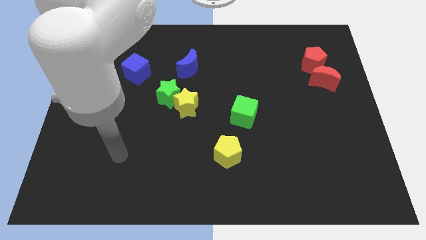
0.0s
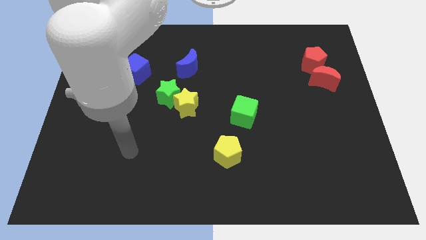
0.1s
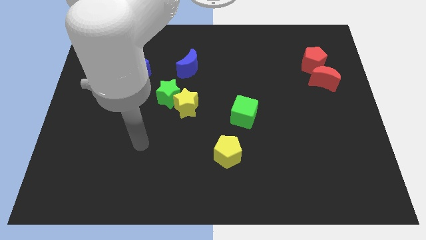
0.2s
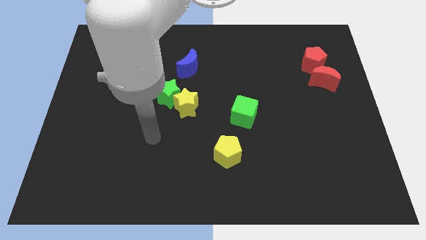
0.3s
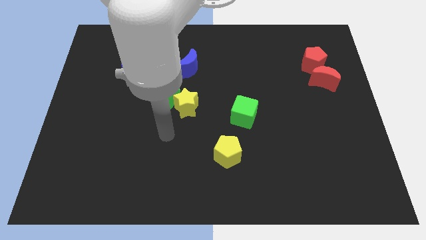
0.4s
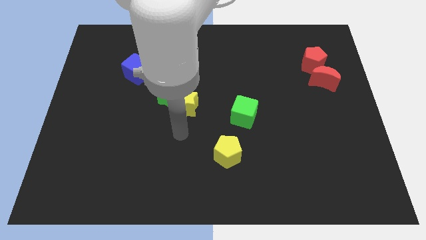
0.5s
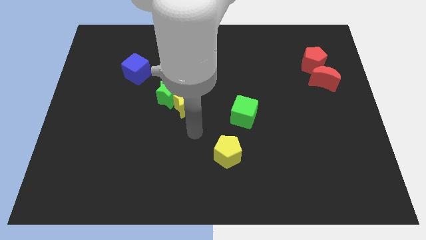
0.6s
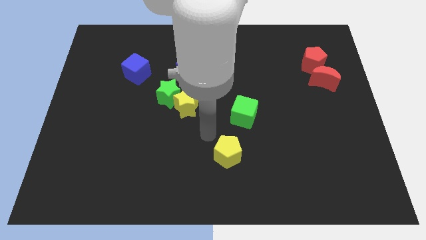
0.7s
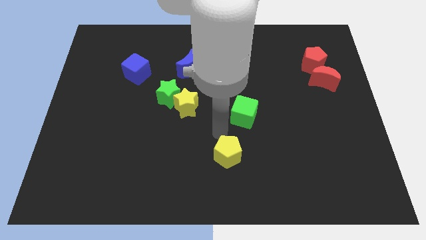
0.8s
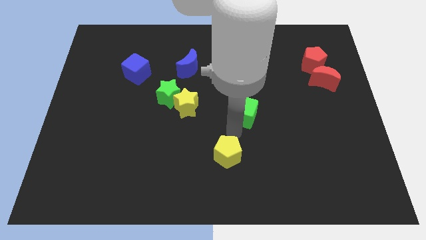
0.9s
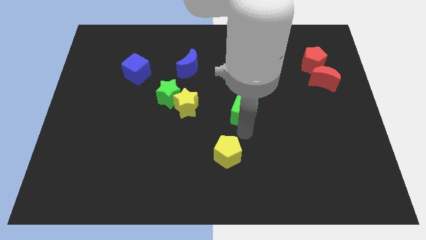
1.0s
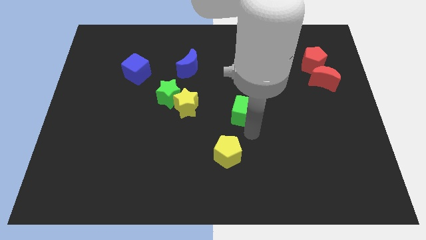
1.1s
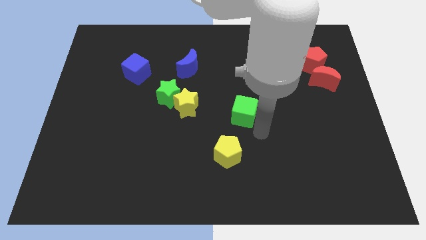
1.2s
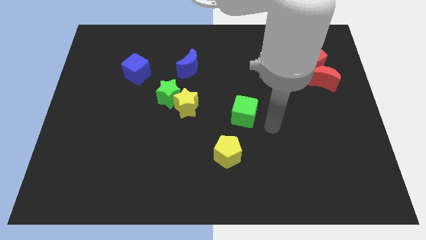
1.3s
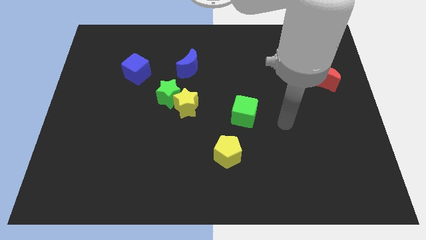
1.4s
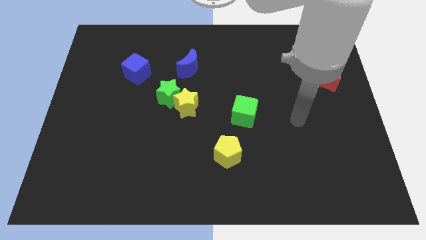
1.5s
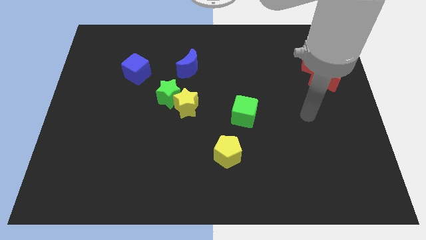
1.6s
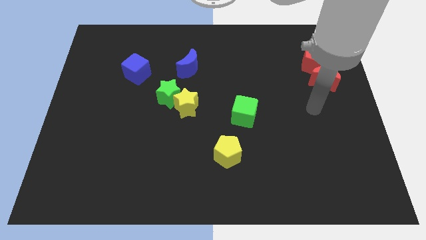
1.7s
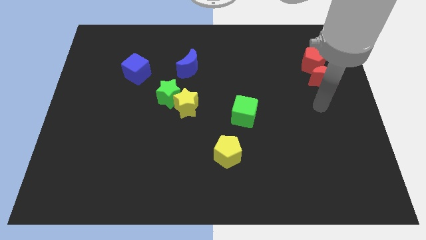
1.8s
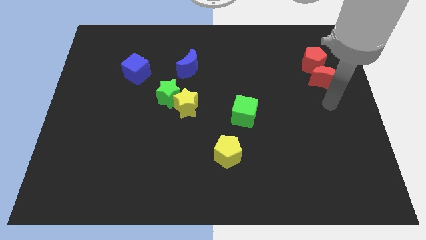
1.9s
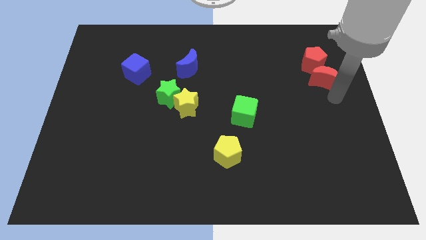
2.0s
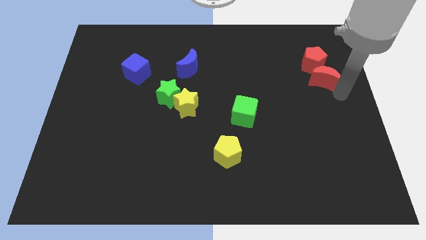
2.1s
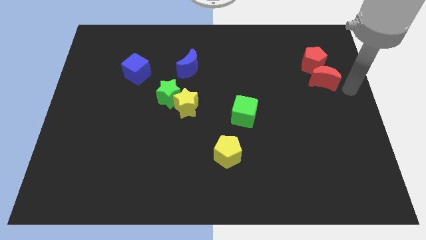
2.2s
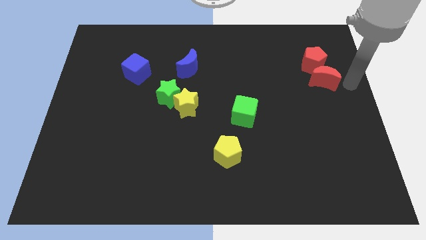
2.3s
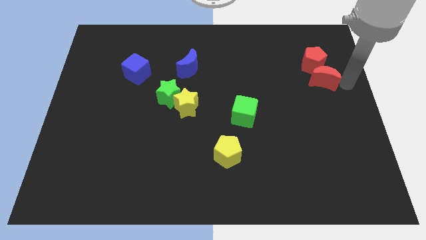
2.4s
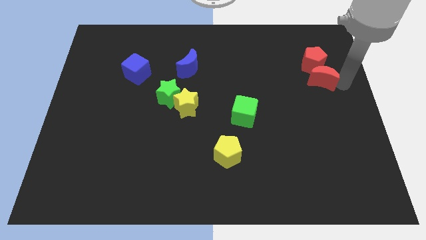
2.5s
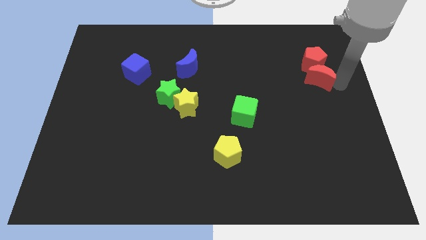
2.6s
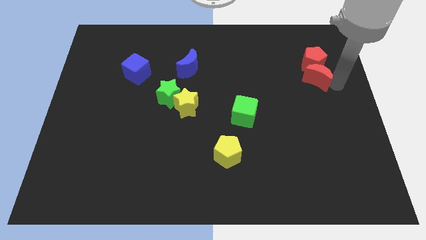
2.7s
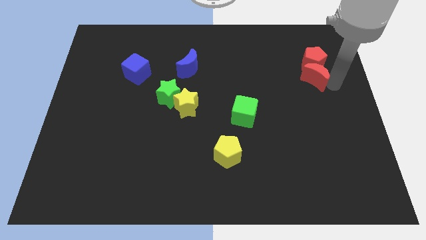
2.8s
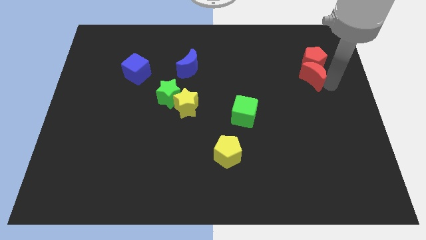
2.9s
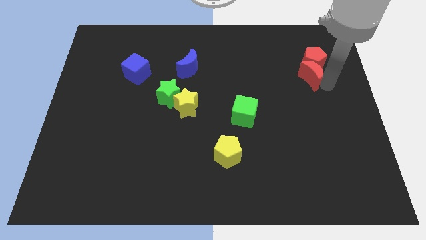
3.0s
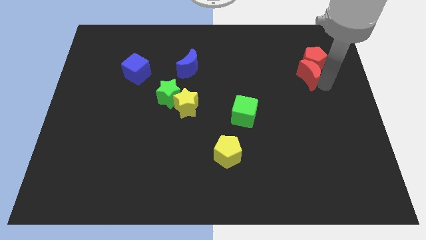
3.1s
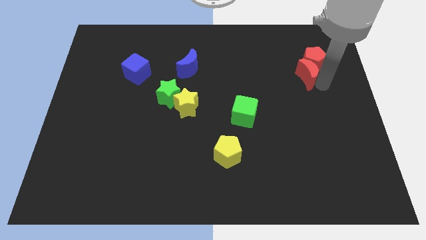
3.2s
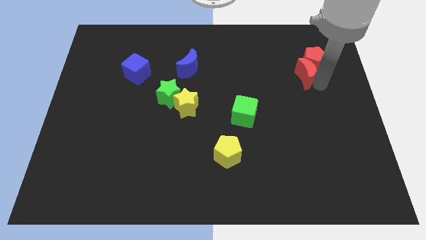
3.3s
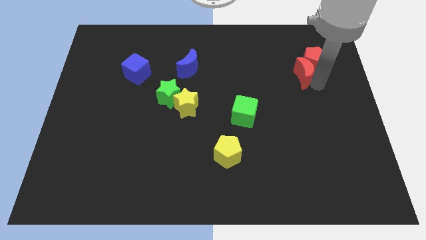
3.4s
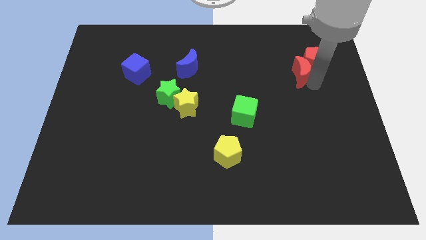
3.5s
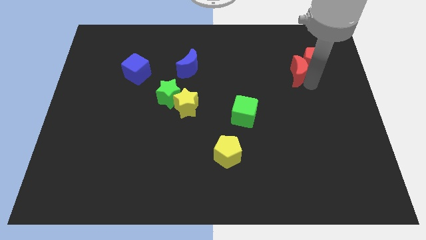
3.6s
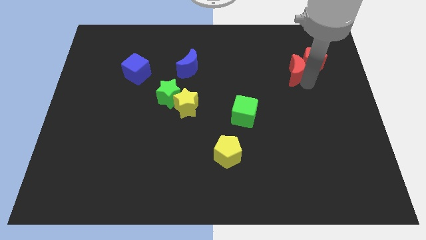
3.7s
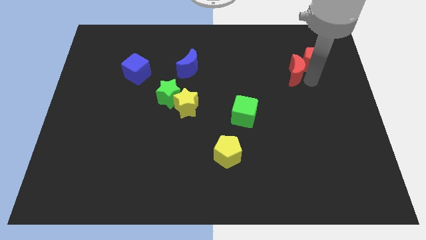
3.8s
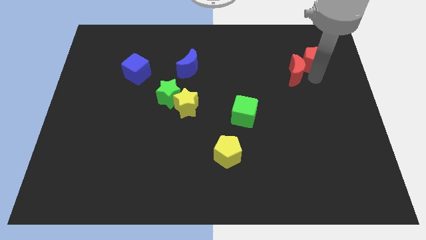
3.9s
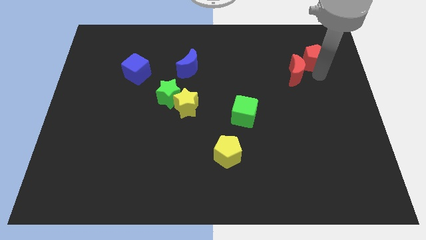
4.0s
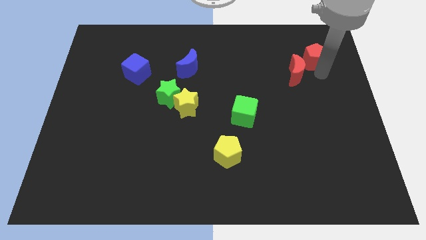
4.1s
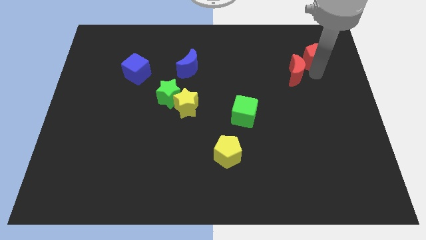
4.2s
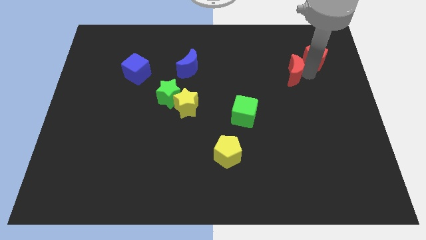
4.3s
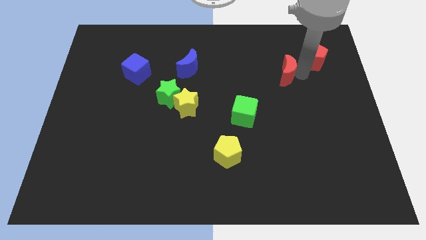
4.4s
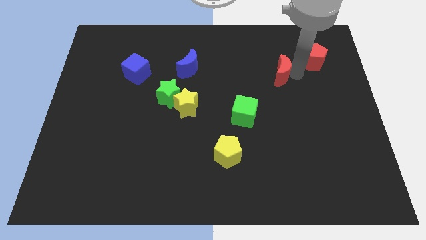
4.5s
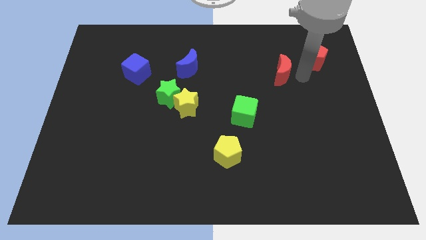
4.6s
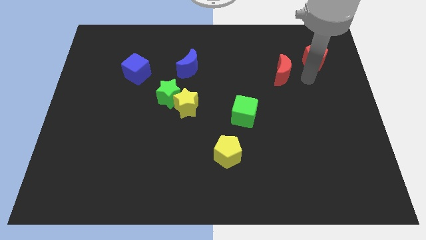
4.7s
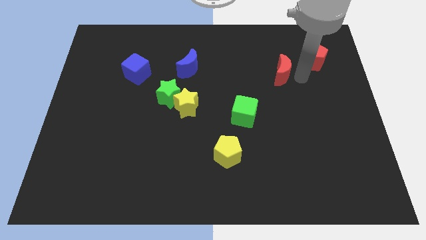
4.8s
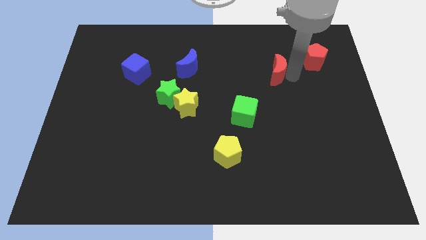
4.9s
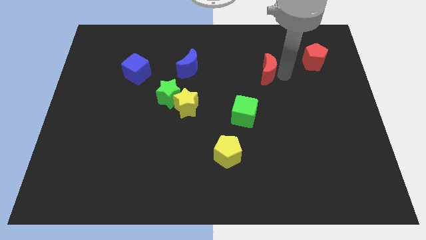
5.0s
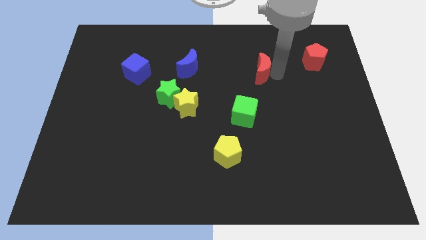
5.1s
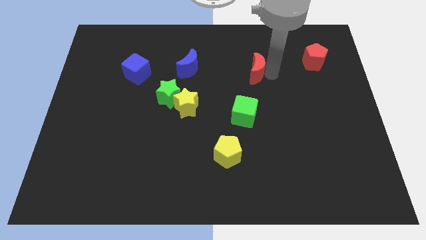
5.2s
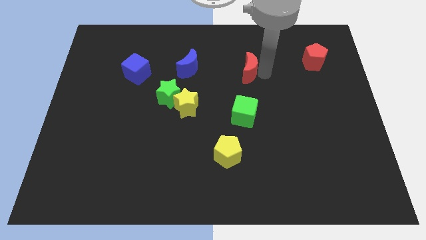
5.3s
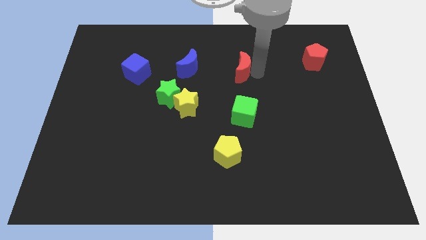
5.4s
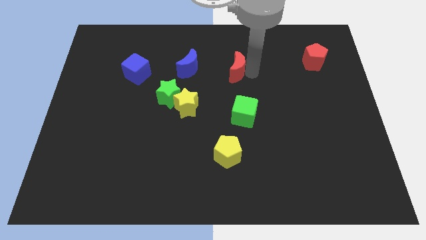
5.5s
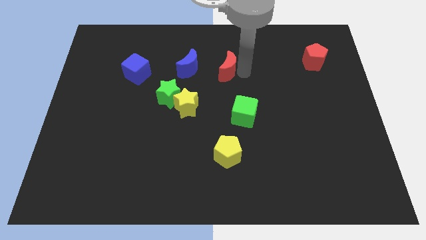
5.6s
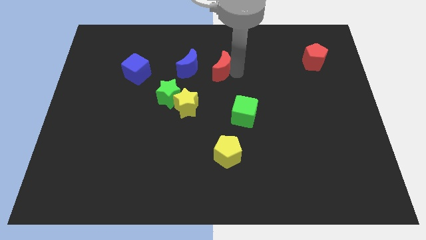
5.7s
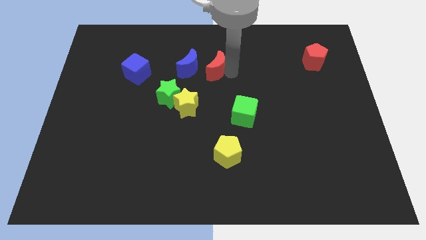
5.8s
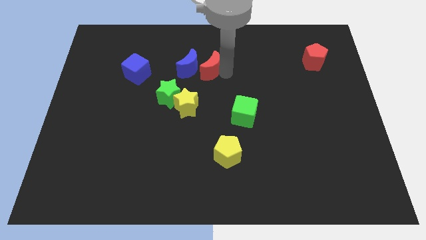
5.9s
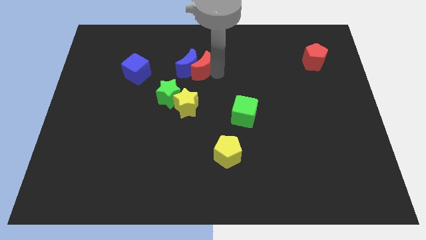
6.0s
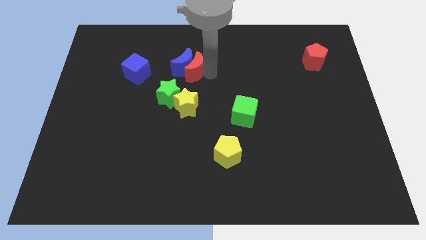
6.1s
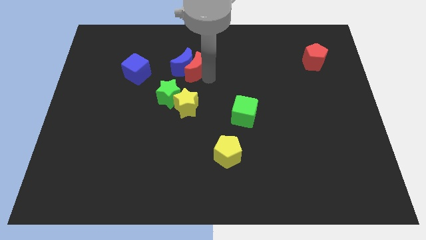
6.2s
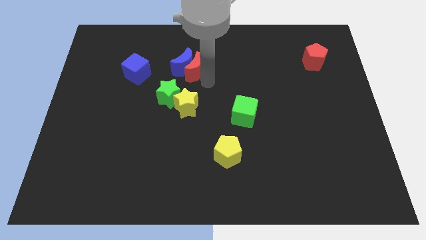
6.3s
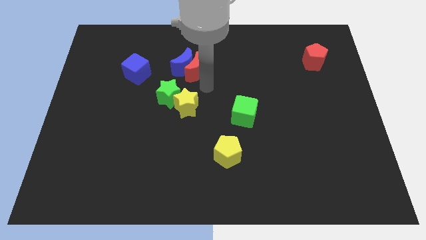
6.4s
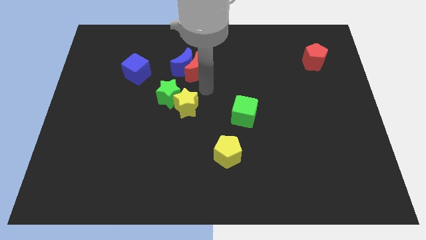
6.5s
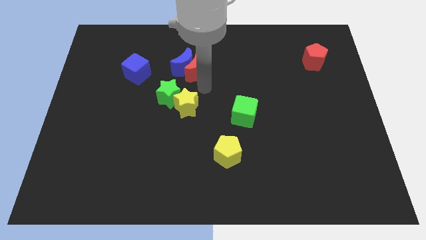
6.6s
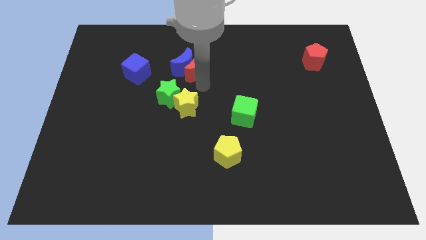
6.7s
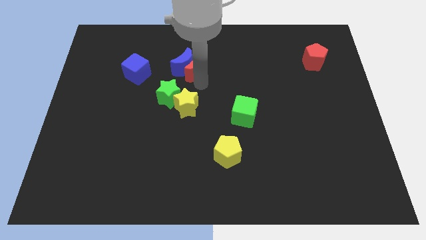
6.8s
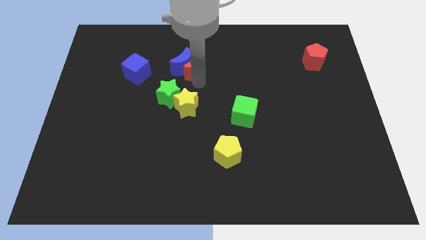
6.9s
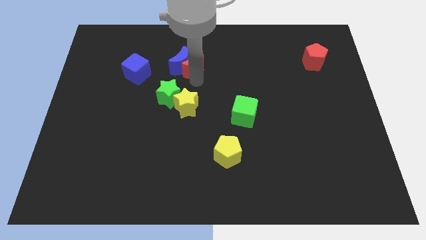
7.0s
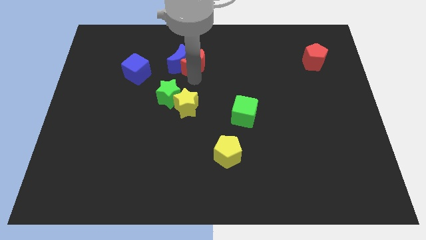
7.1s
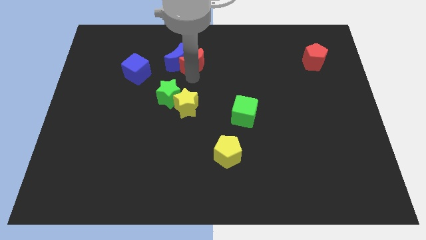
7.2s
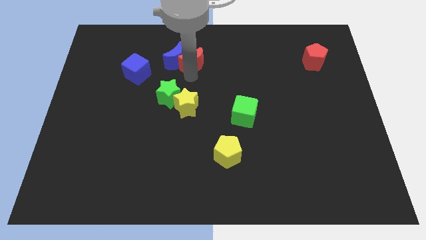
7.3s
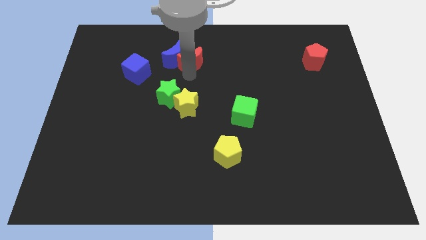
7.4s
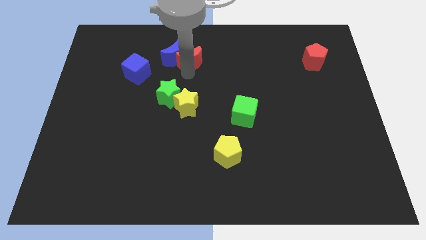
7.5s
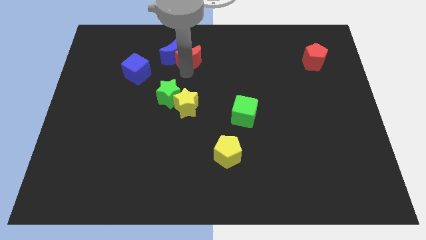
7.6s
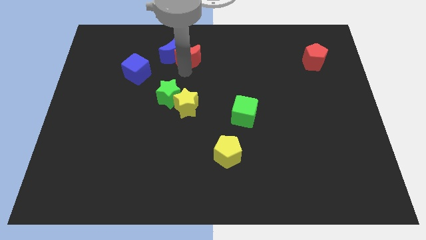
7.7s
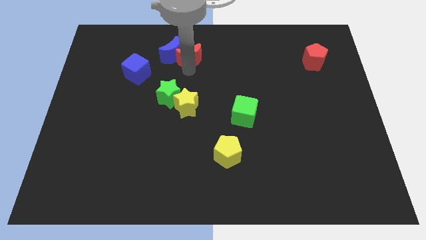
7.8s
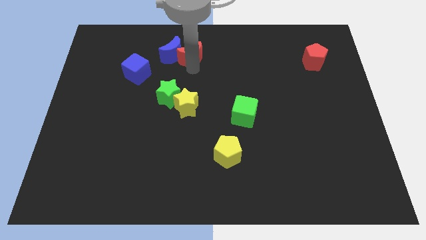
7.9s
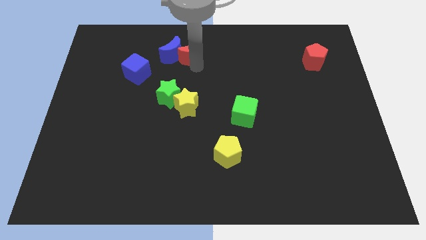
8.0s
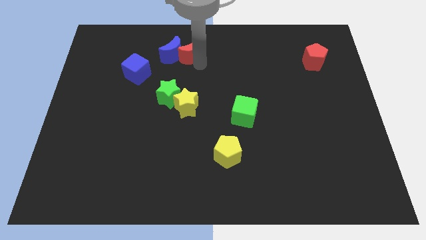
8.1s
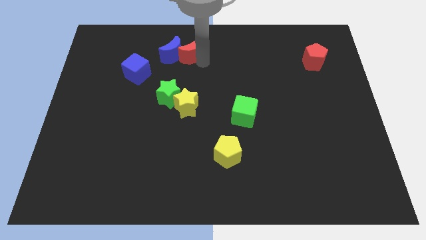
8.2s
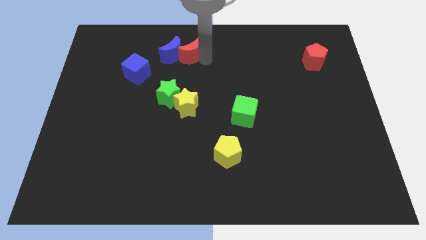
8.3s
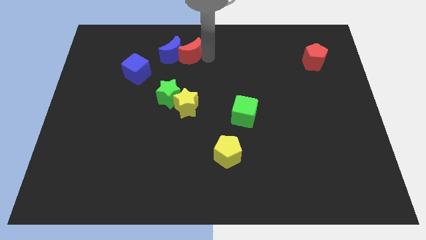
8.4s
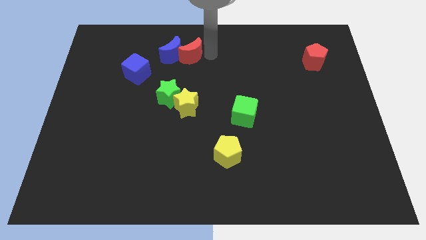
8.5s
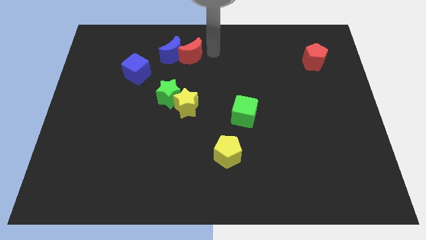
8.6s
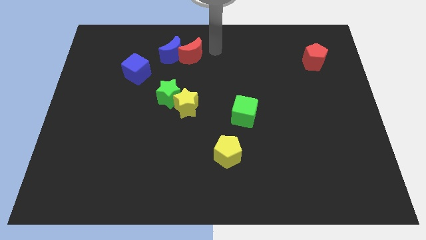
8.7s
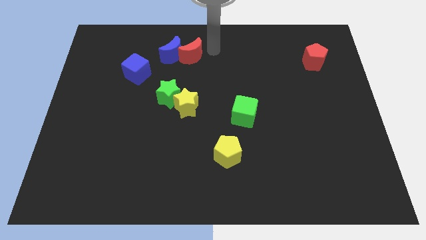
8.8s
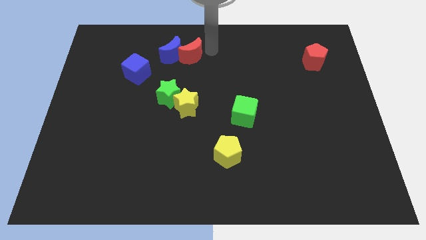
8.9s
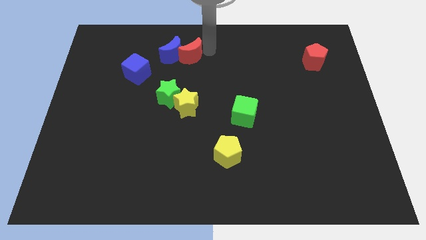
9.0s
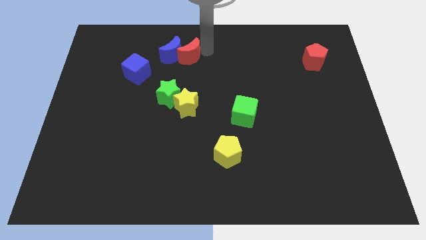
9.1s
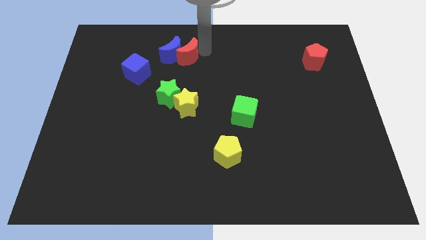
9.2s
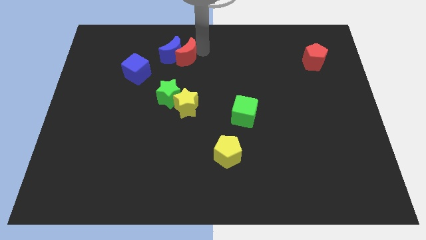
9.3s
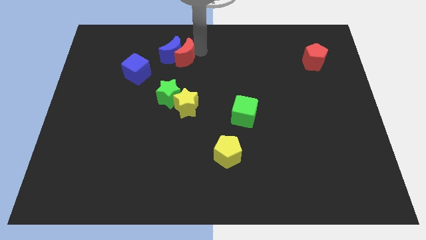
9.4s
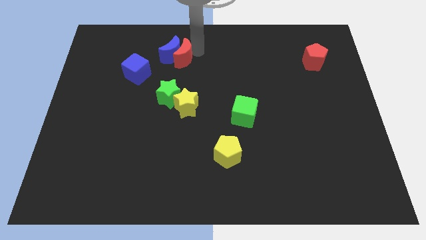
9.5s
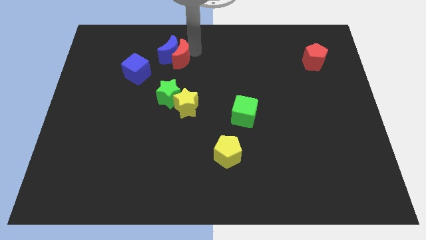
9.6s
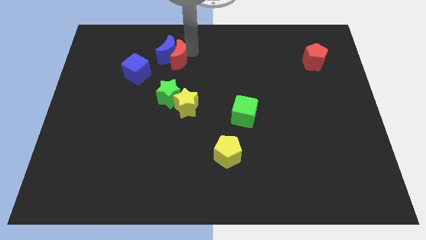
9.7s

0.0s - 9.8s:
put the red moon diagonally up and to the right of the blue cube
